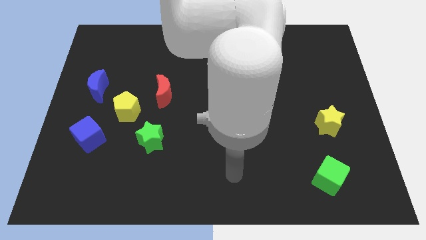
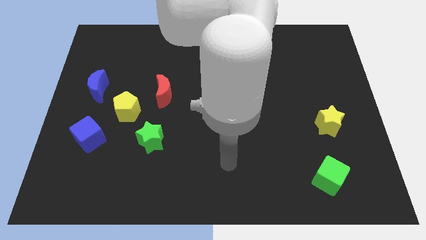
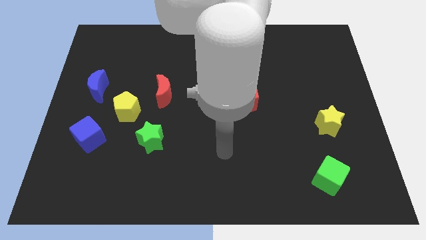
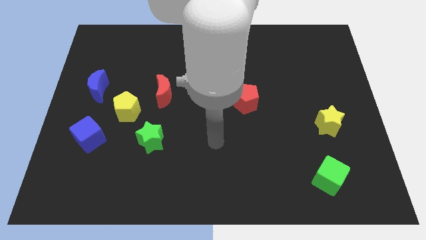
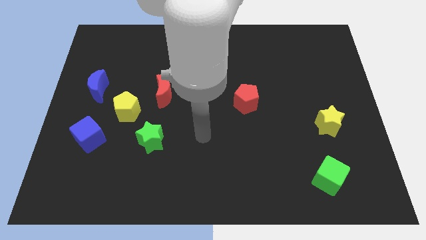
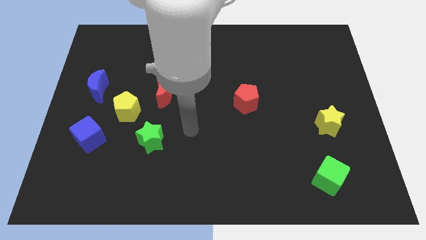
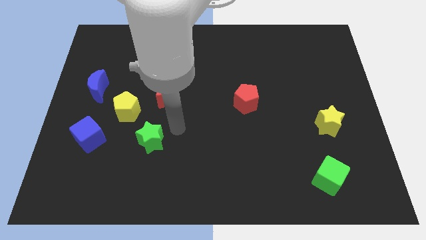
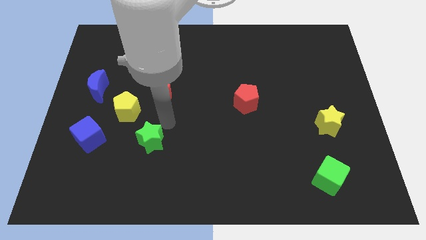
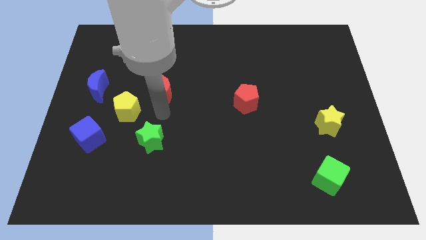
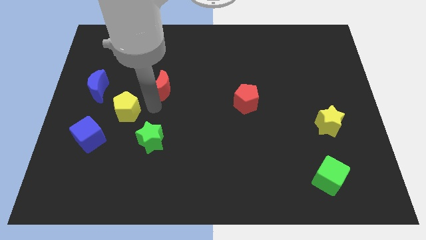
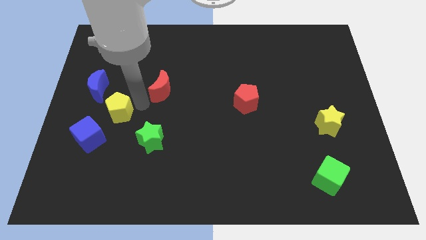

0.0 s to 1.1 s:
separate the red moon from the yellow pentagon

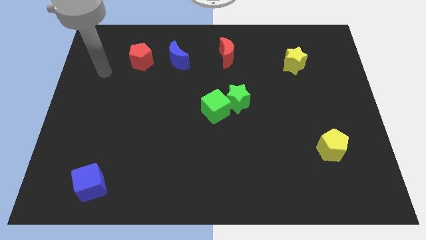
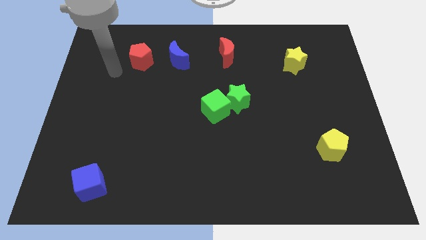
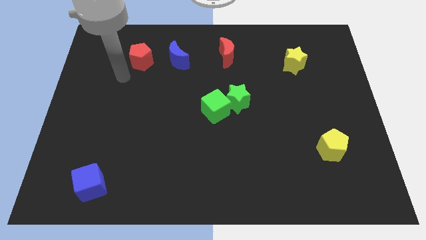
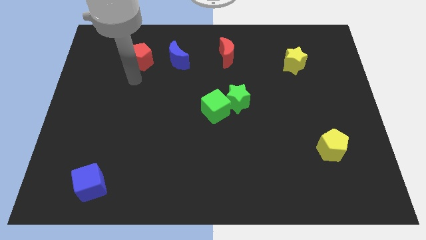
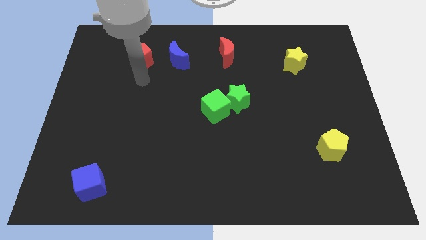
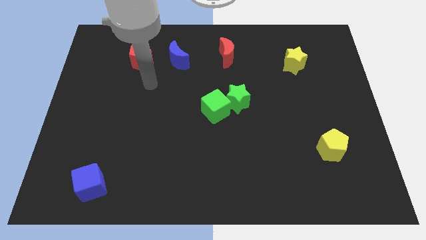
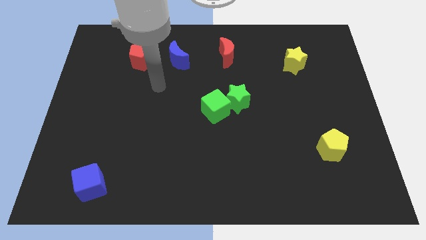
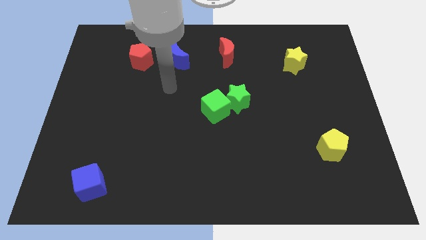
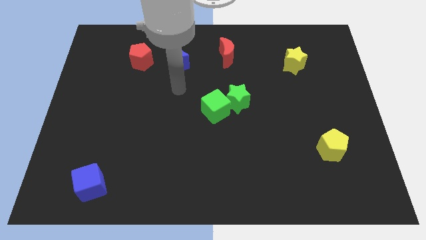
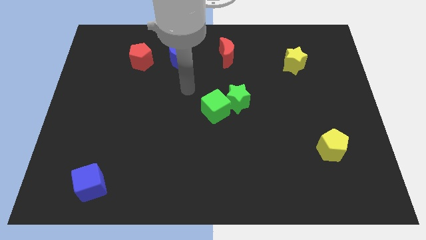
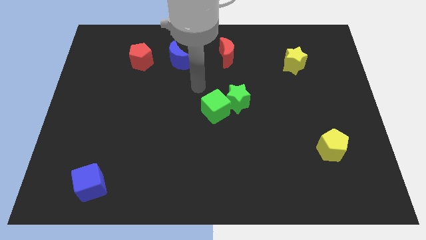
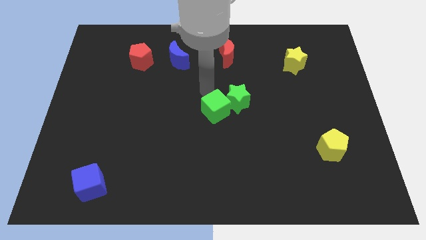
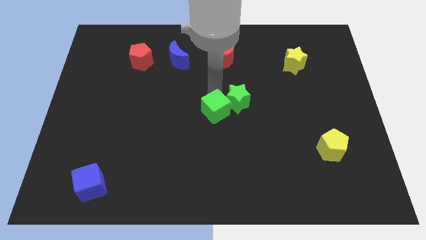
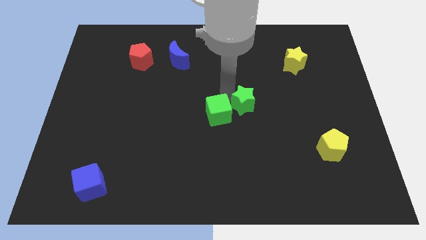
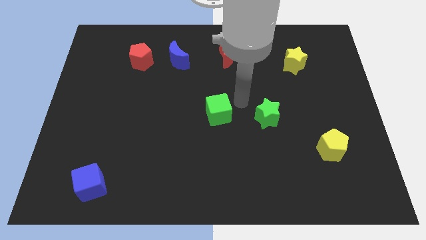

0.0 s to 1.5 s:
separate the green cube from the green star

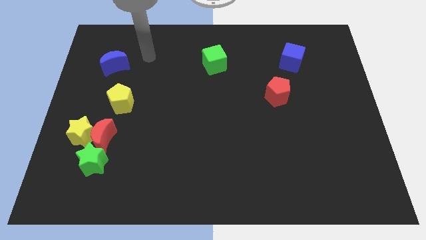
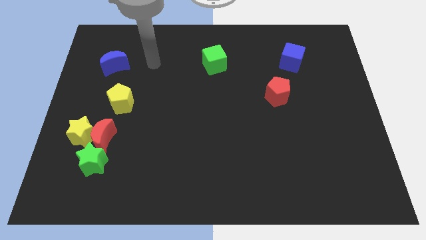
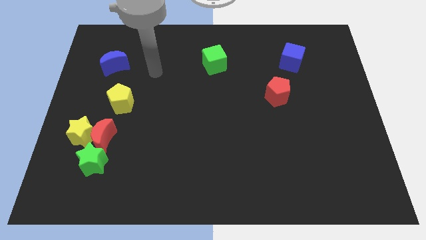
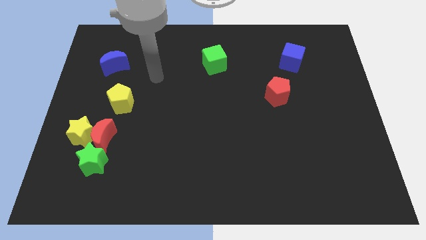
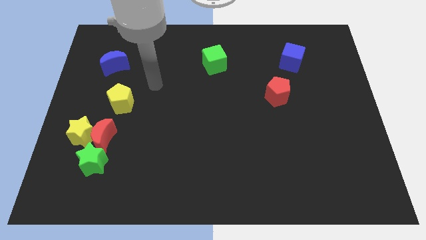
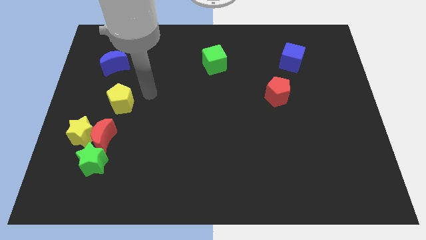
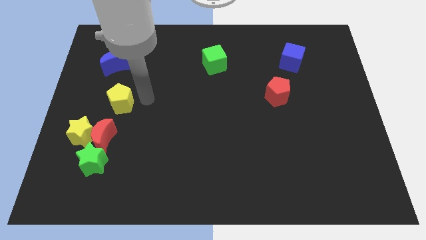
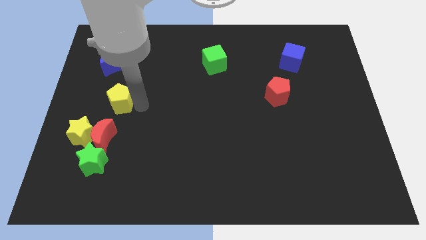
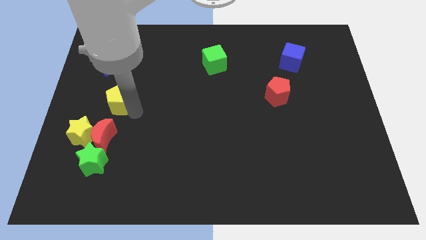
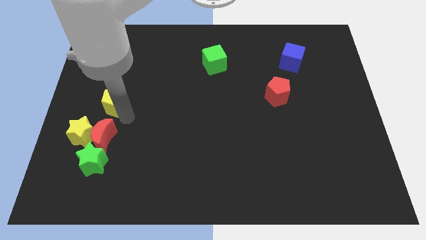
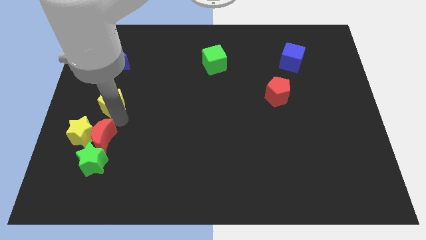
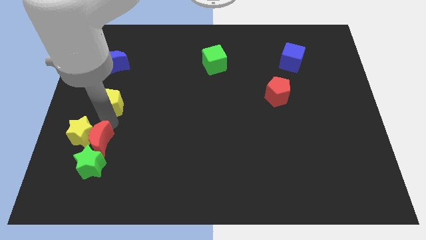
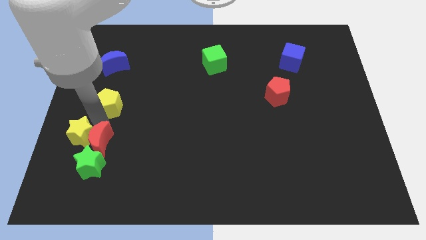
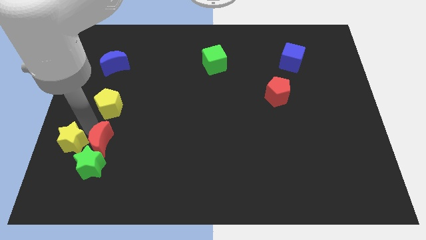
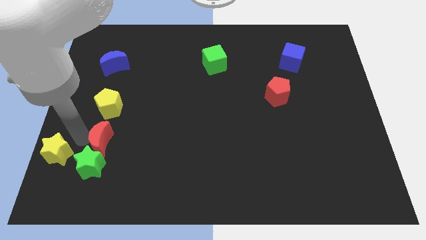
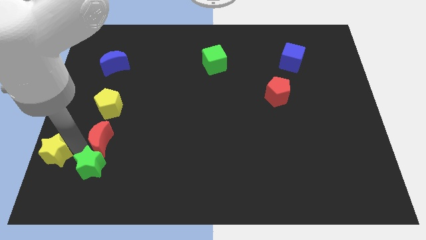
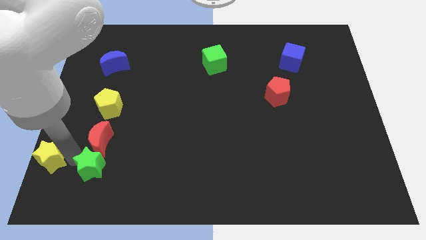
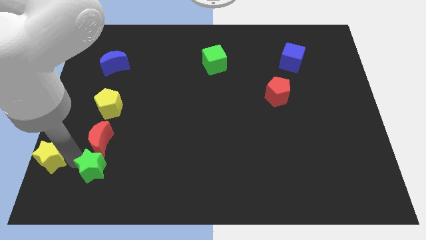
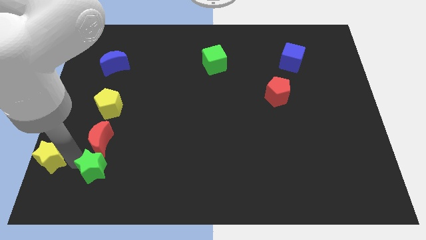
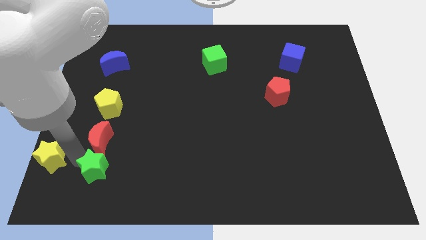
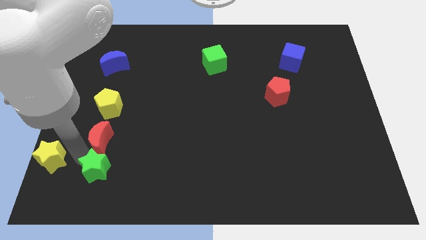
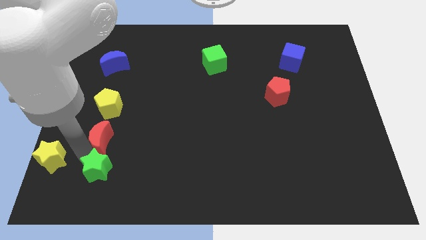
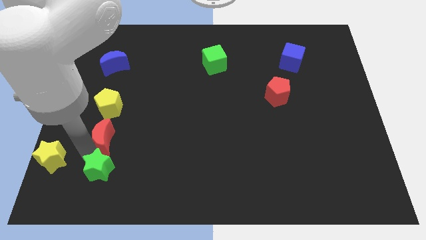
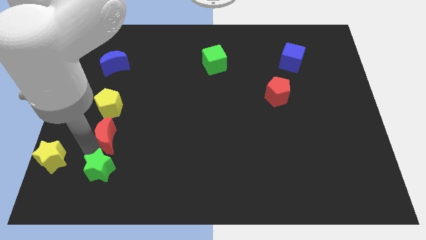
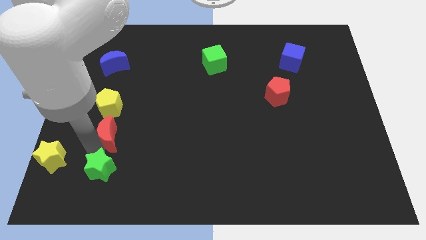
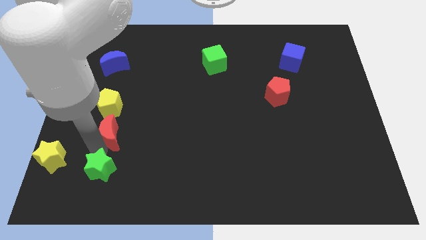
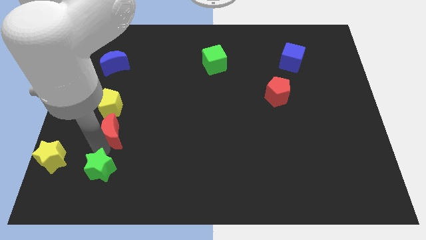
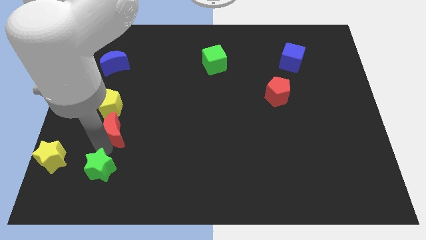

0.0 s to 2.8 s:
move the red moon away from the yellow star and green star

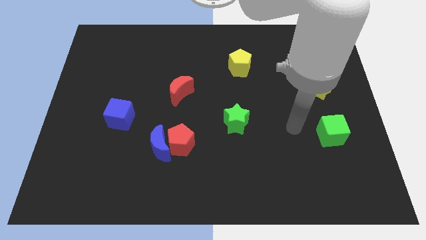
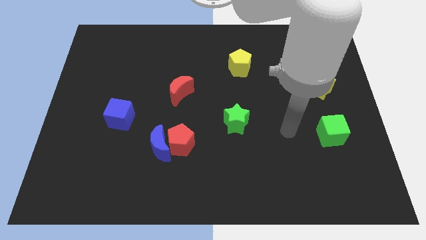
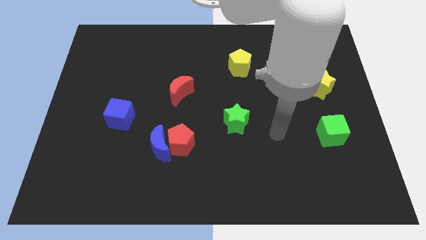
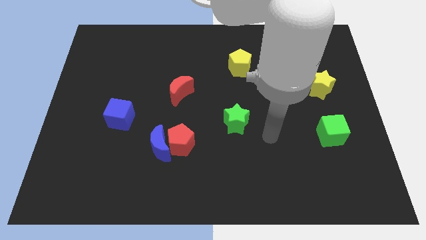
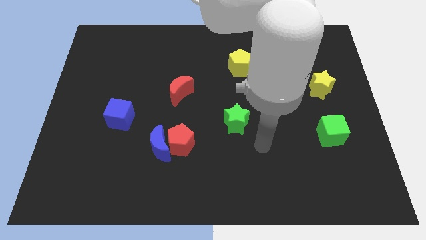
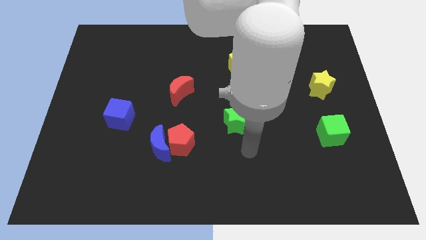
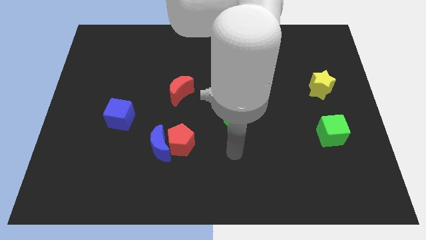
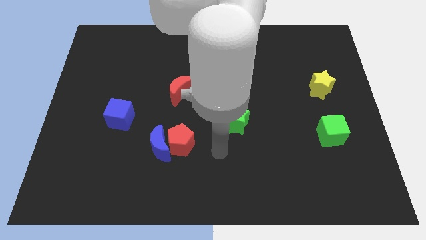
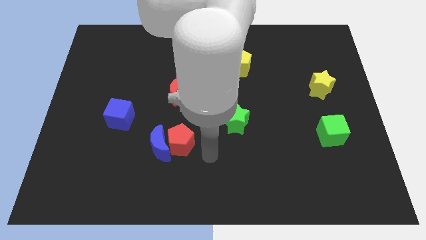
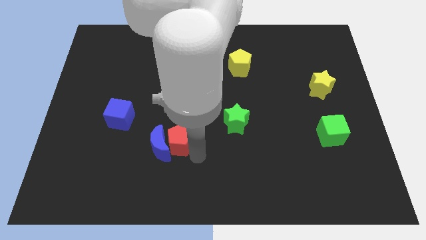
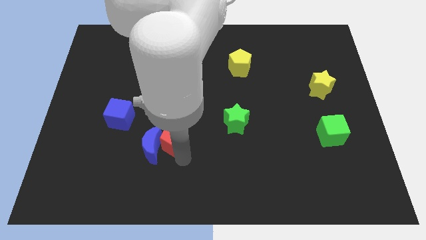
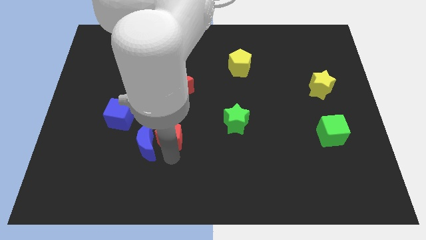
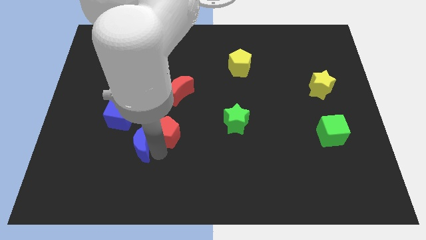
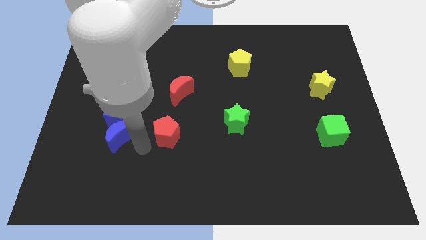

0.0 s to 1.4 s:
move the red pentagon away from the blue moon

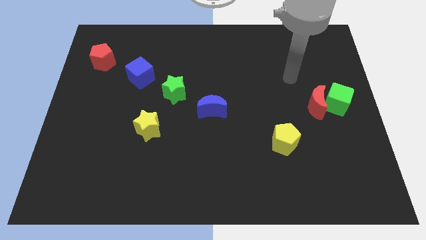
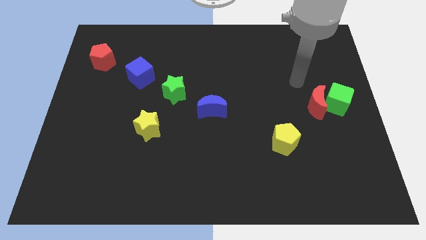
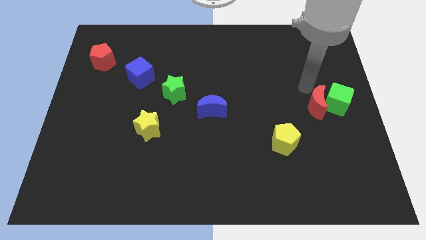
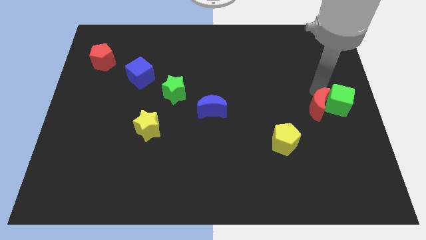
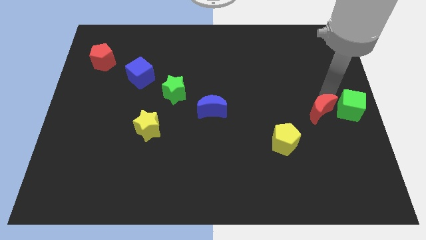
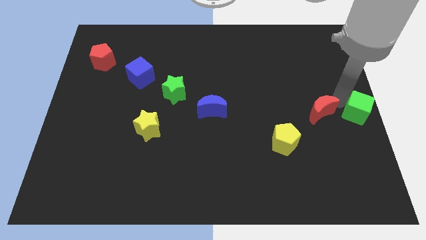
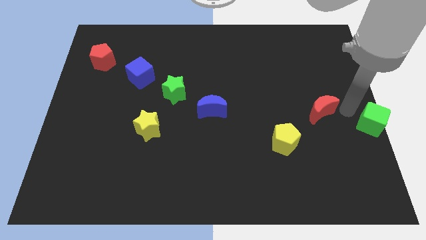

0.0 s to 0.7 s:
separate the red moon from the green cube

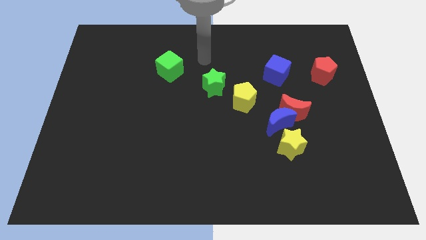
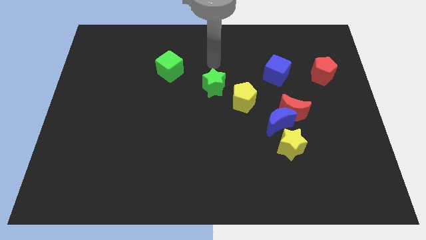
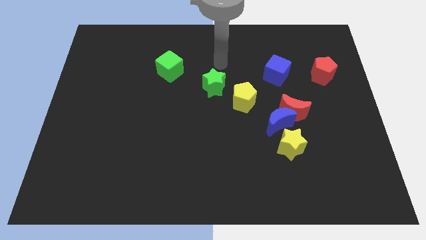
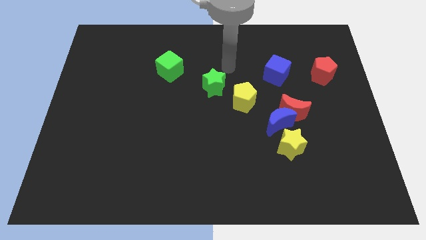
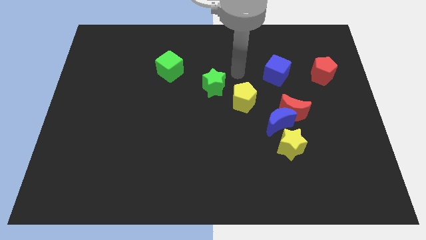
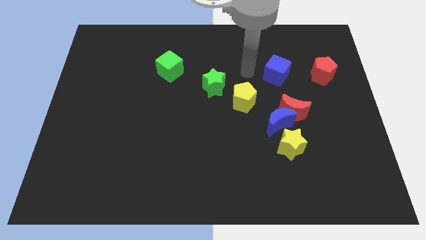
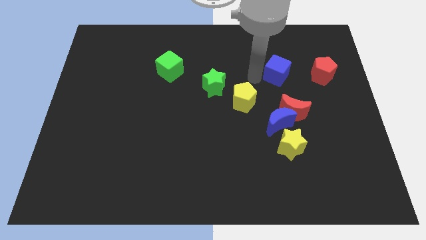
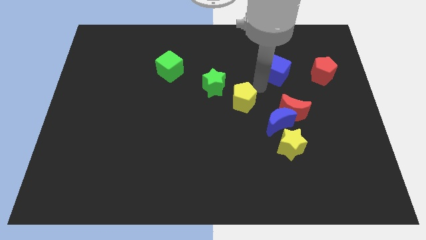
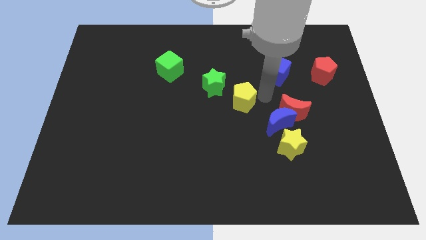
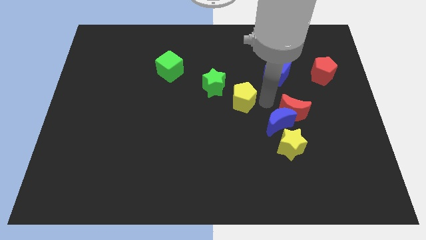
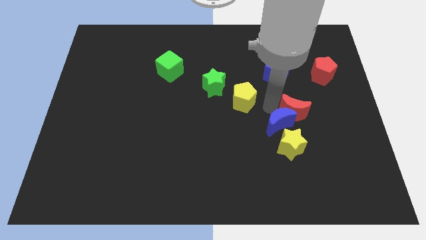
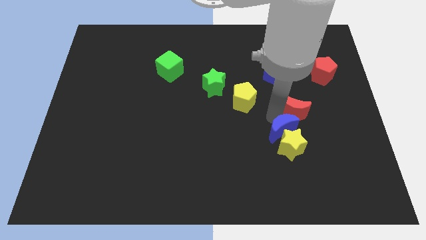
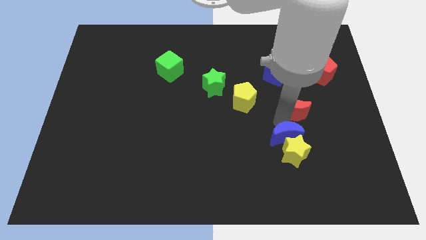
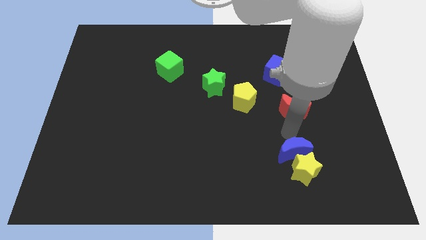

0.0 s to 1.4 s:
separate the red moon from the blue moon and yellow star

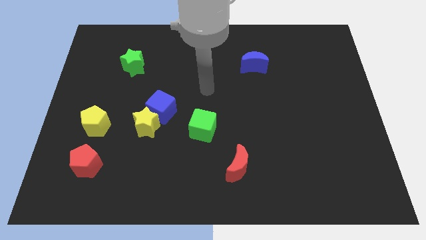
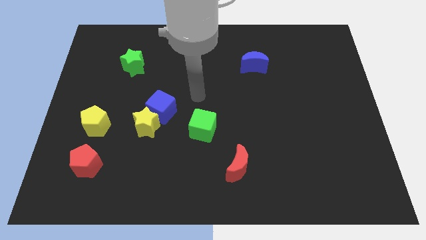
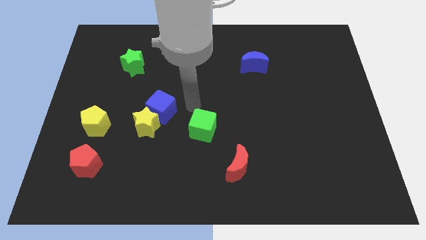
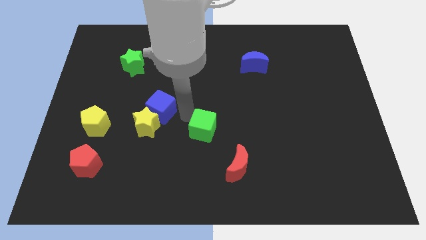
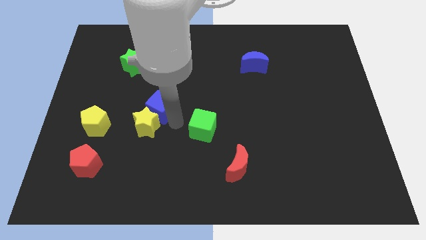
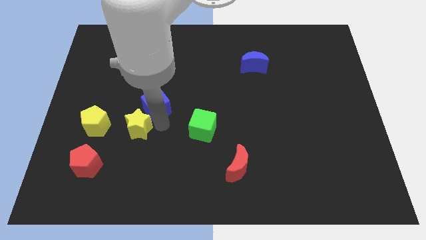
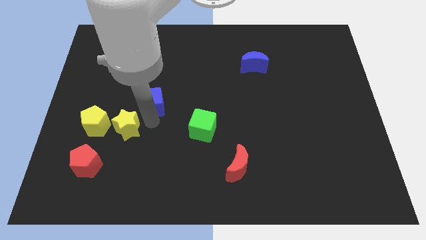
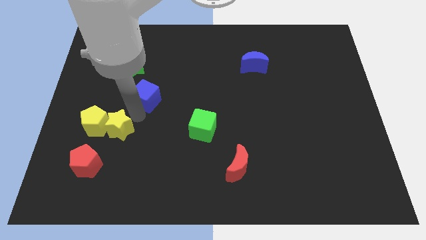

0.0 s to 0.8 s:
pull the blue cube apart from the yellow star
